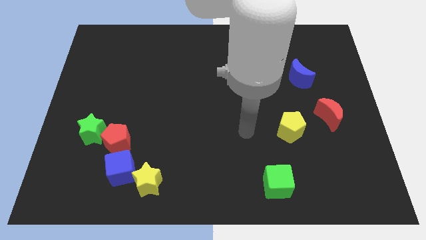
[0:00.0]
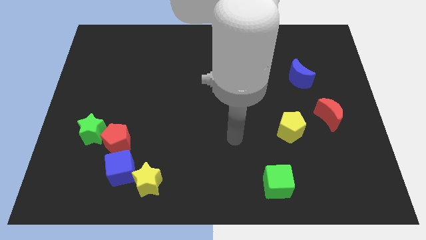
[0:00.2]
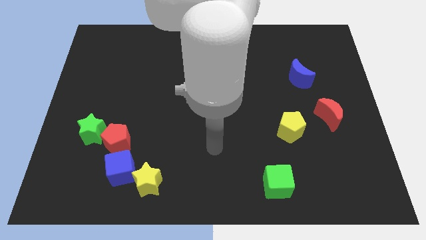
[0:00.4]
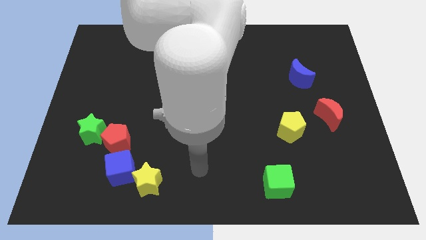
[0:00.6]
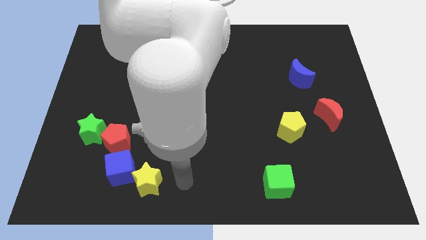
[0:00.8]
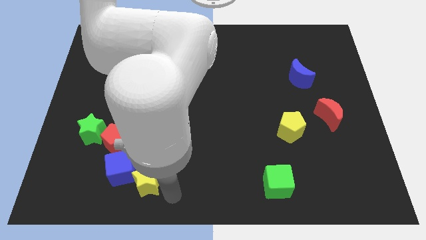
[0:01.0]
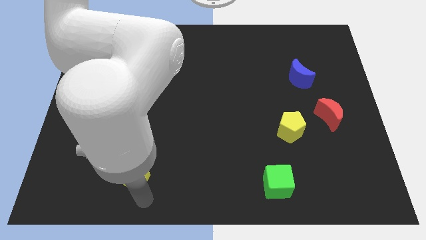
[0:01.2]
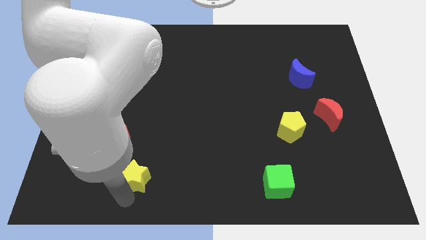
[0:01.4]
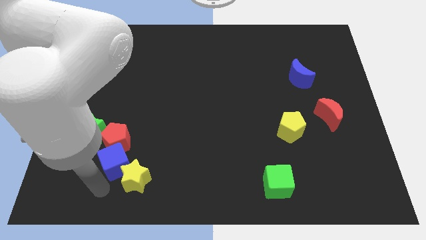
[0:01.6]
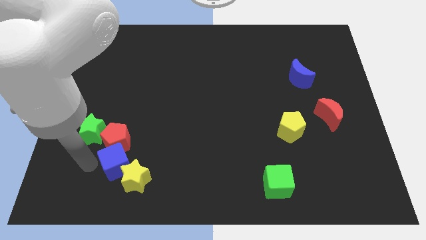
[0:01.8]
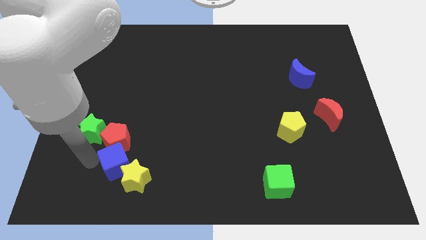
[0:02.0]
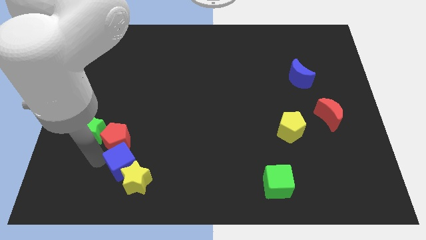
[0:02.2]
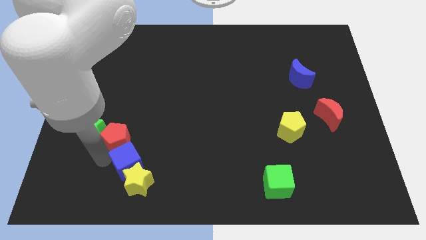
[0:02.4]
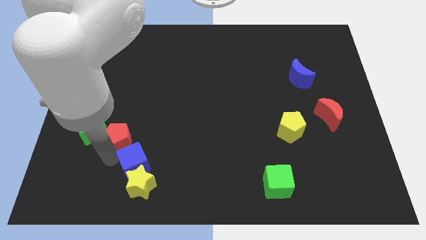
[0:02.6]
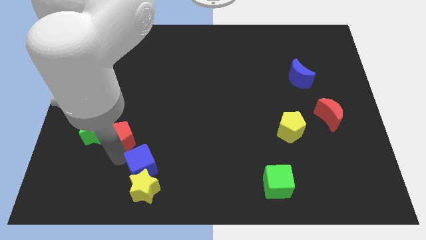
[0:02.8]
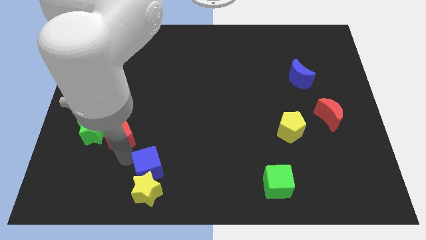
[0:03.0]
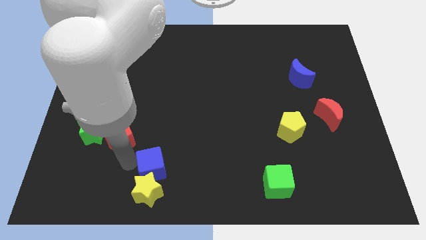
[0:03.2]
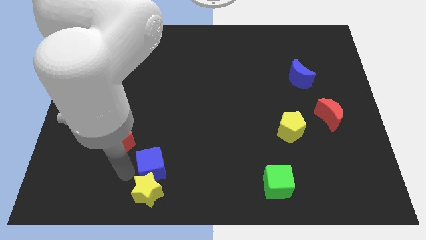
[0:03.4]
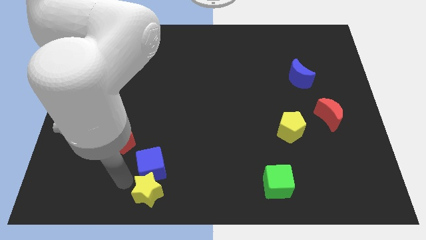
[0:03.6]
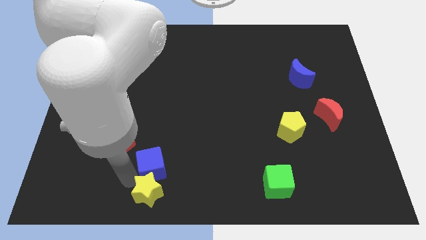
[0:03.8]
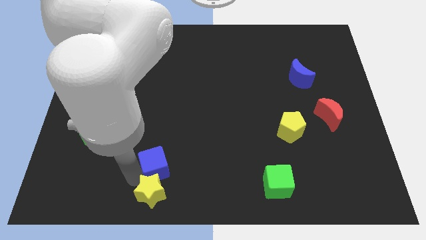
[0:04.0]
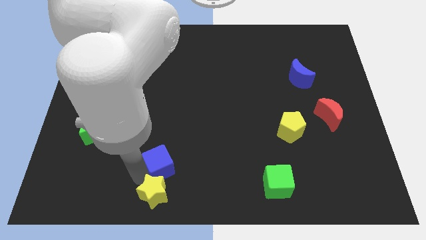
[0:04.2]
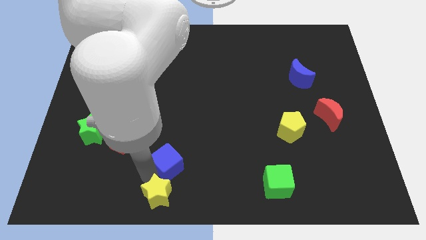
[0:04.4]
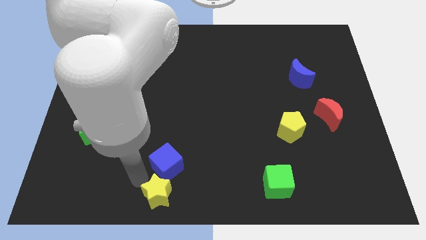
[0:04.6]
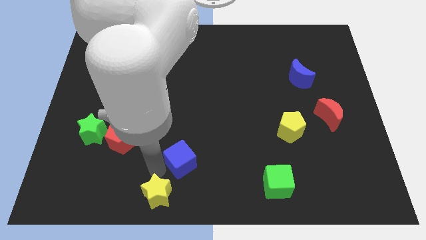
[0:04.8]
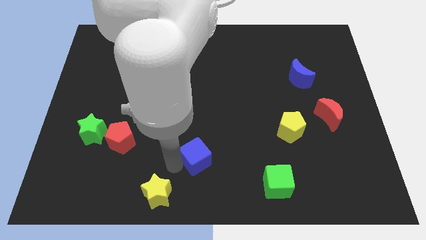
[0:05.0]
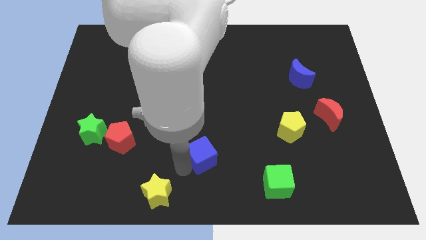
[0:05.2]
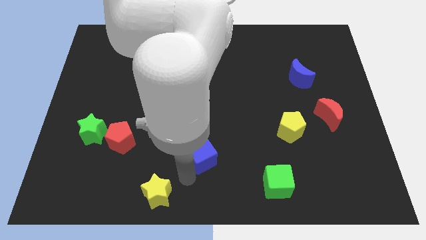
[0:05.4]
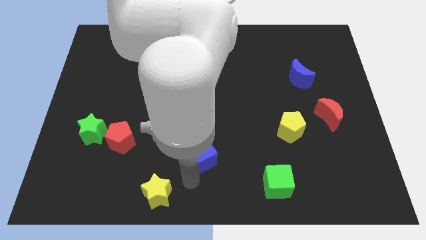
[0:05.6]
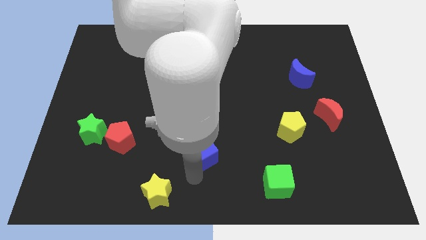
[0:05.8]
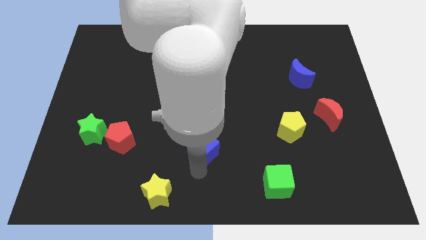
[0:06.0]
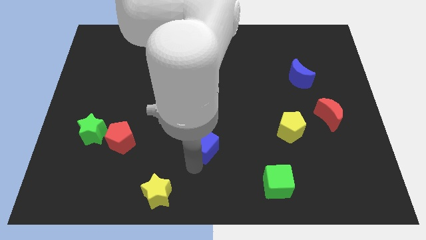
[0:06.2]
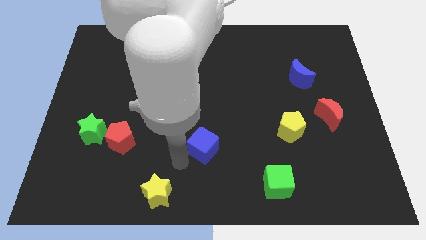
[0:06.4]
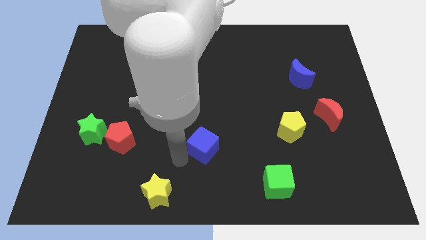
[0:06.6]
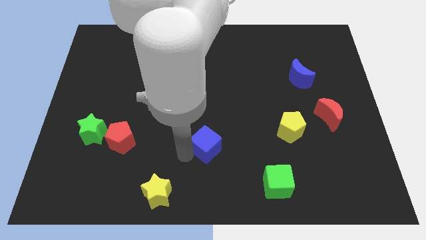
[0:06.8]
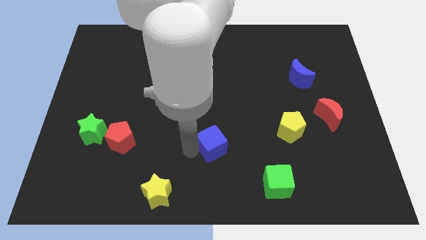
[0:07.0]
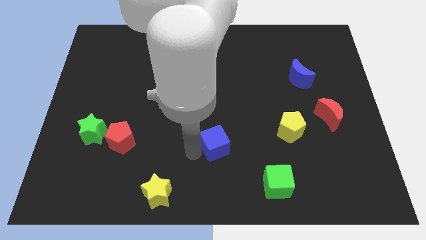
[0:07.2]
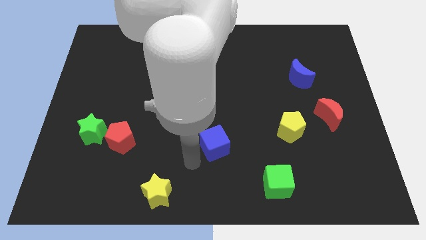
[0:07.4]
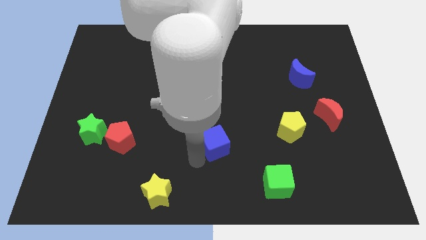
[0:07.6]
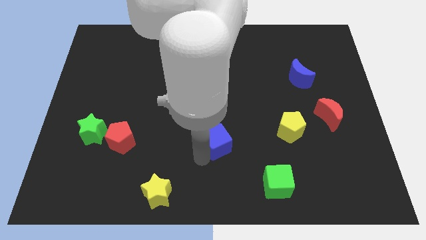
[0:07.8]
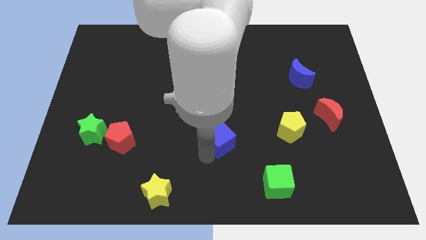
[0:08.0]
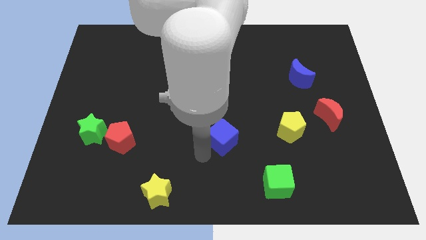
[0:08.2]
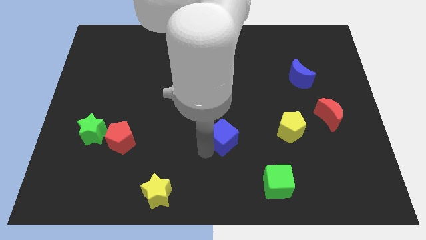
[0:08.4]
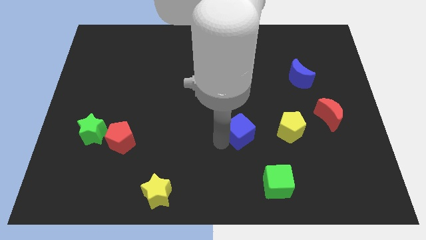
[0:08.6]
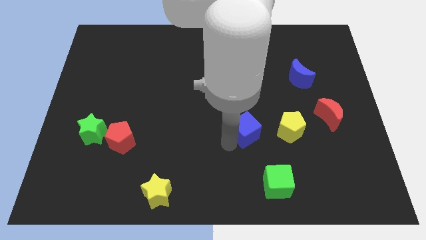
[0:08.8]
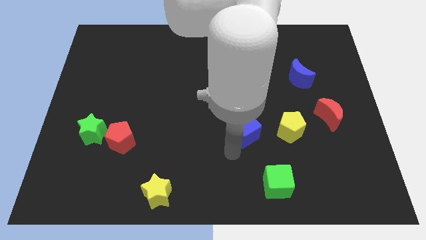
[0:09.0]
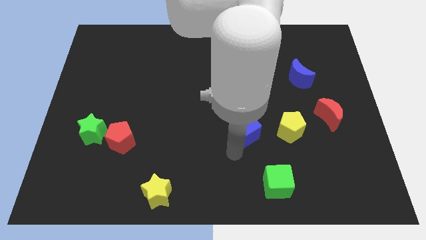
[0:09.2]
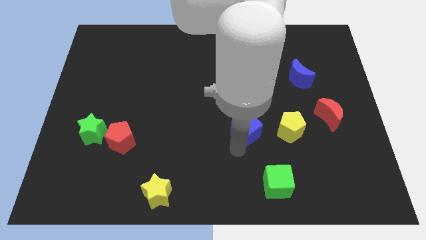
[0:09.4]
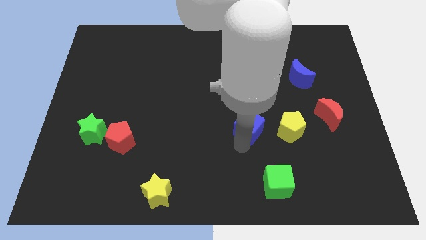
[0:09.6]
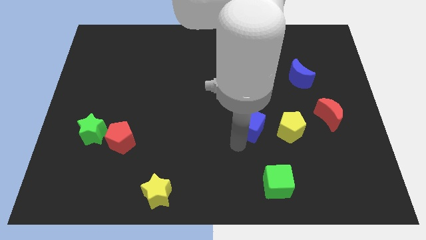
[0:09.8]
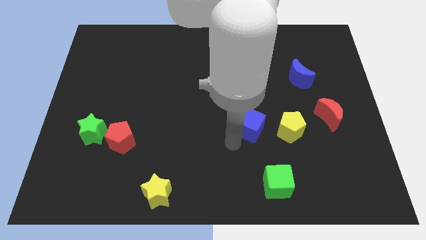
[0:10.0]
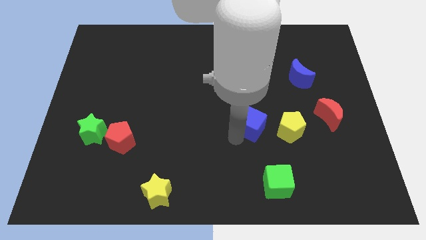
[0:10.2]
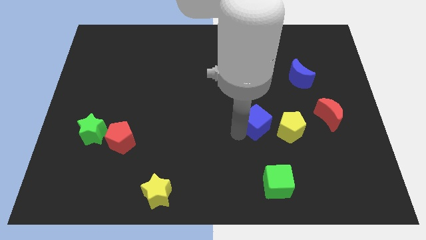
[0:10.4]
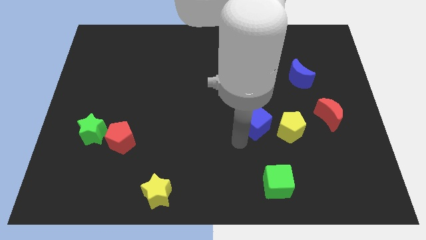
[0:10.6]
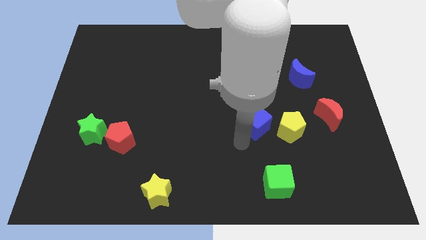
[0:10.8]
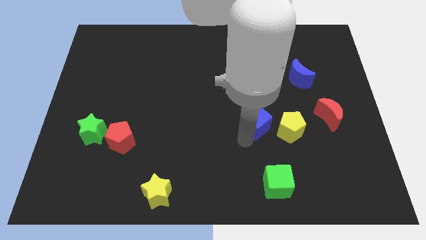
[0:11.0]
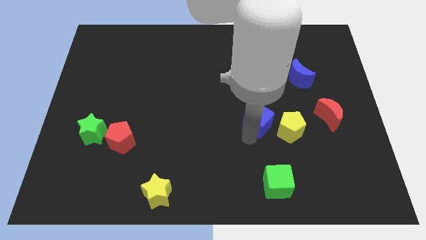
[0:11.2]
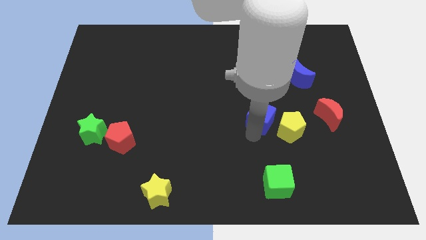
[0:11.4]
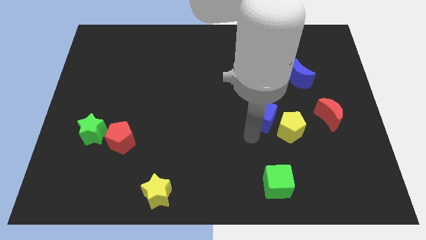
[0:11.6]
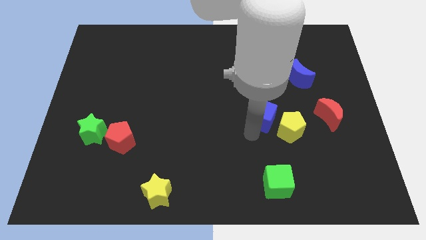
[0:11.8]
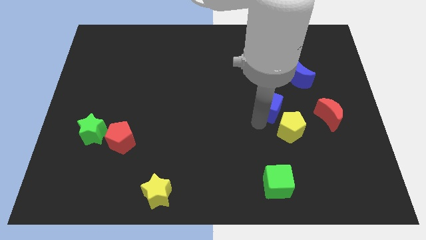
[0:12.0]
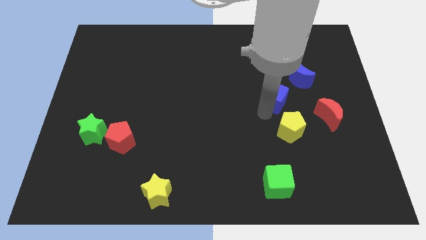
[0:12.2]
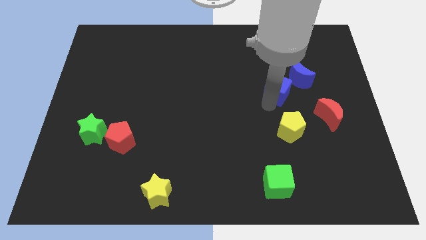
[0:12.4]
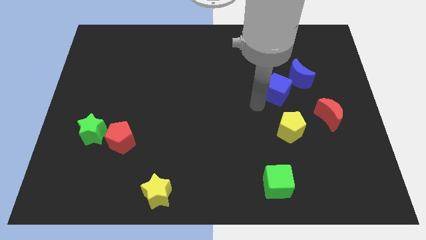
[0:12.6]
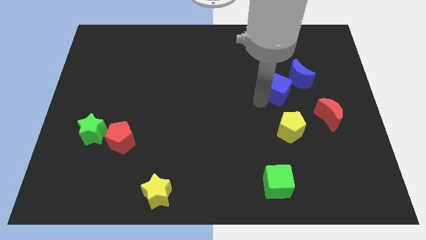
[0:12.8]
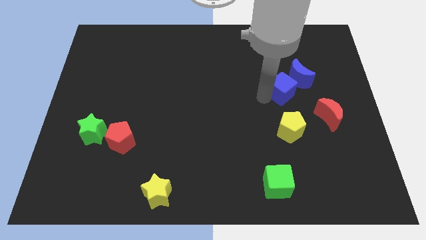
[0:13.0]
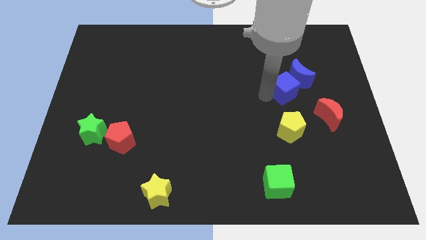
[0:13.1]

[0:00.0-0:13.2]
move the blue cube to the blue moon

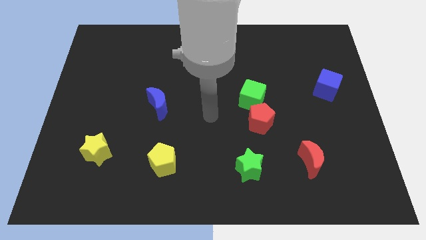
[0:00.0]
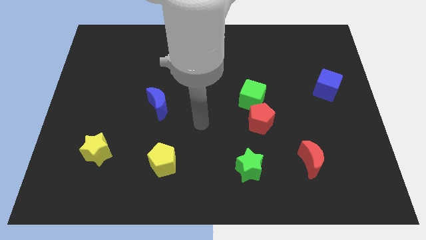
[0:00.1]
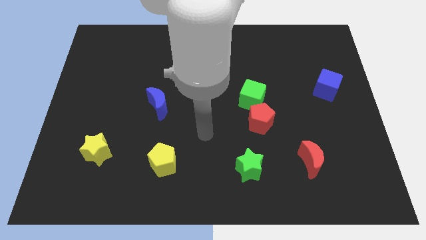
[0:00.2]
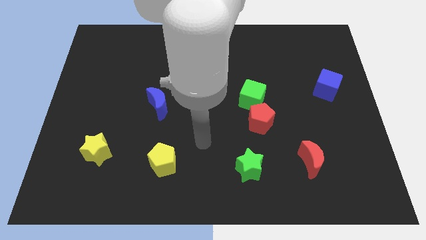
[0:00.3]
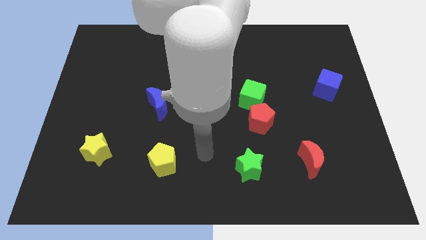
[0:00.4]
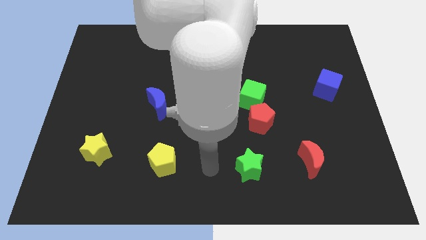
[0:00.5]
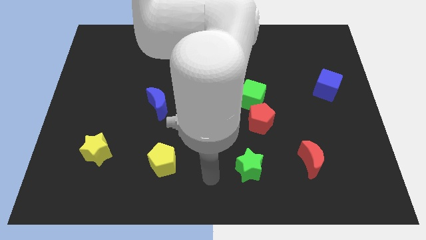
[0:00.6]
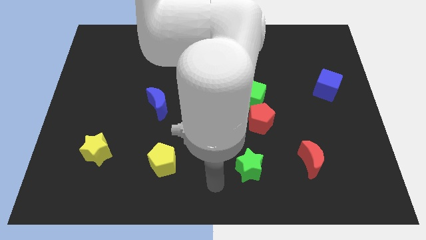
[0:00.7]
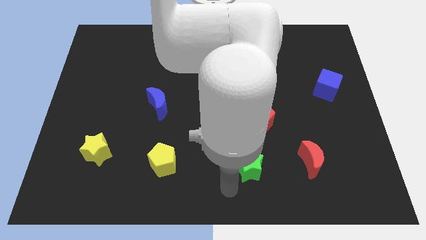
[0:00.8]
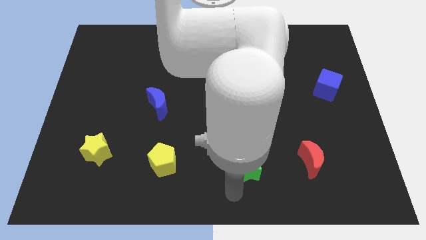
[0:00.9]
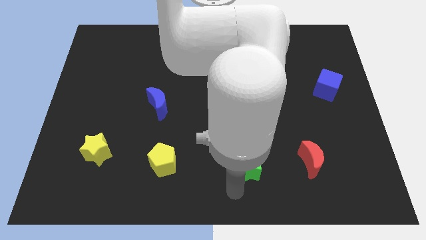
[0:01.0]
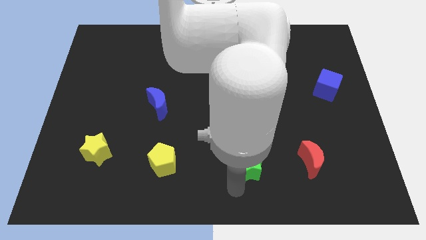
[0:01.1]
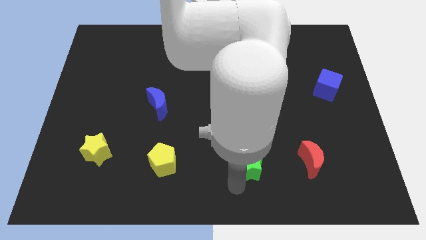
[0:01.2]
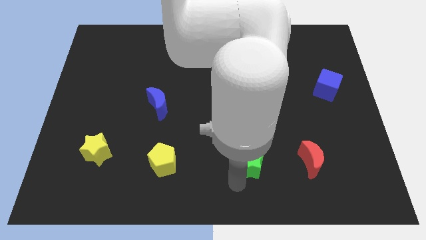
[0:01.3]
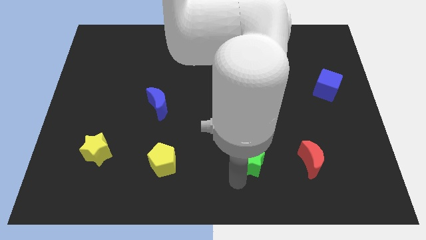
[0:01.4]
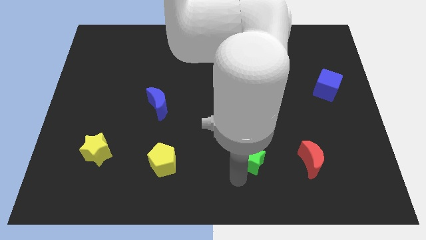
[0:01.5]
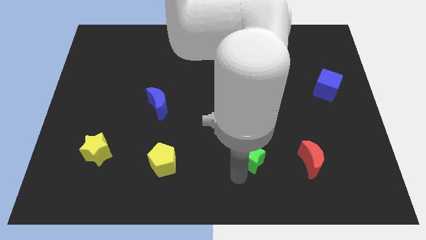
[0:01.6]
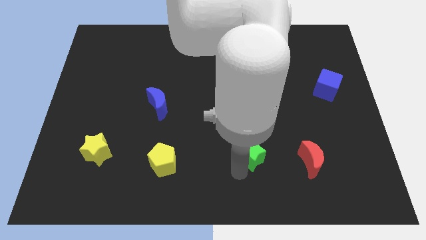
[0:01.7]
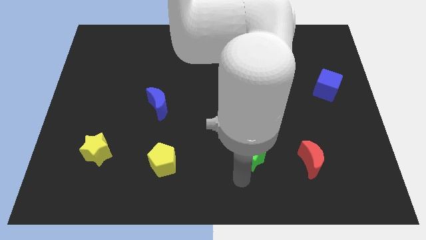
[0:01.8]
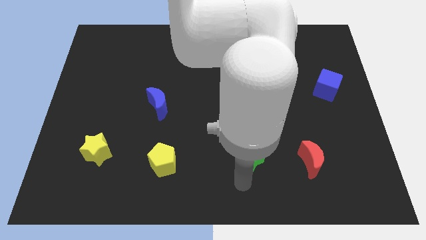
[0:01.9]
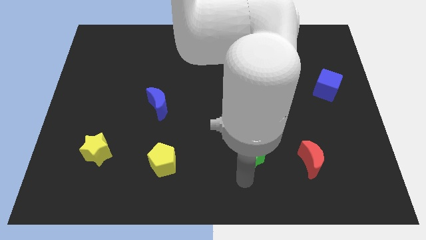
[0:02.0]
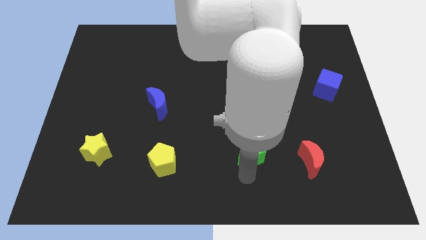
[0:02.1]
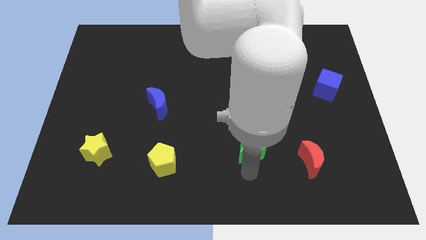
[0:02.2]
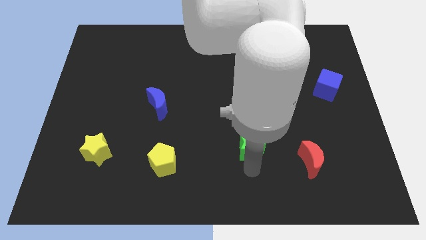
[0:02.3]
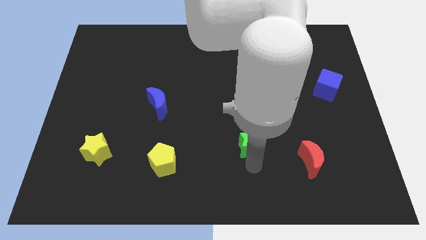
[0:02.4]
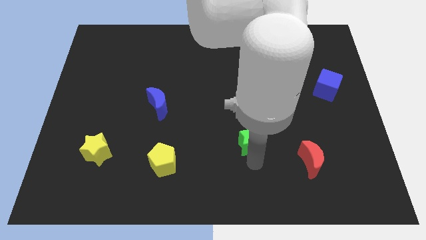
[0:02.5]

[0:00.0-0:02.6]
move the green star to the red pentagon
